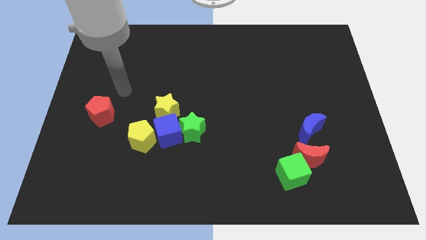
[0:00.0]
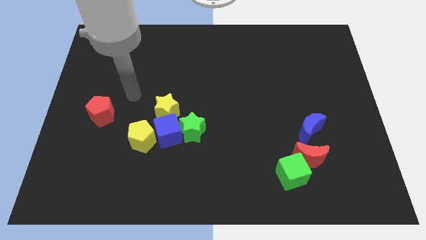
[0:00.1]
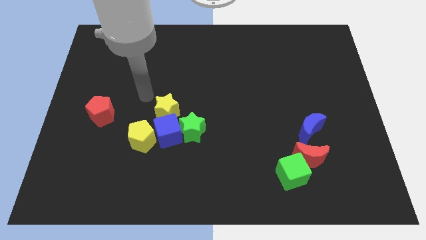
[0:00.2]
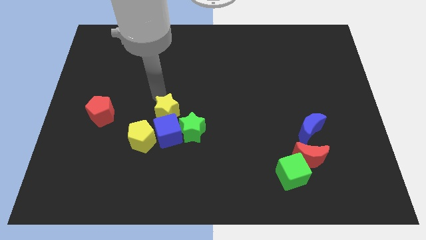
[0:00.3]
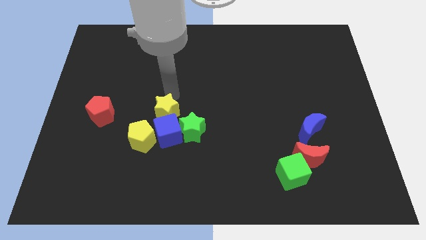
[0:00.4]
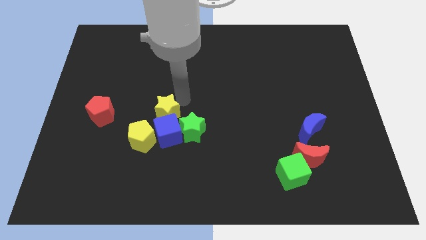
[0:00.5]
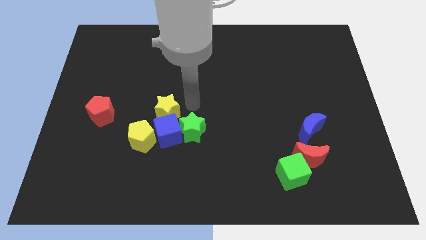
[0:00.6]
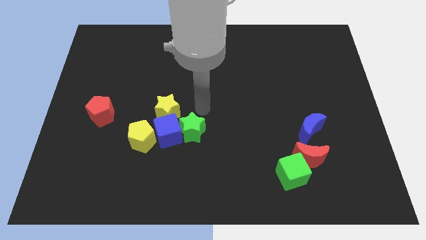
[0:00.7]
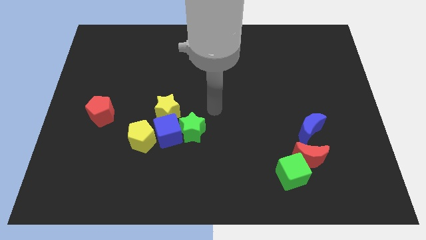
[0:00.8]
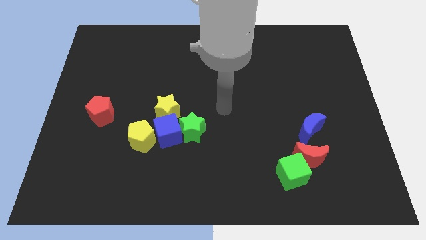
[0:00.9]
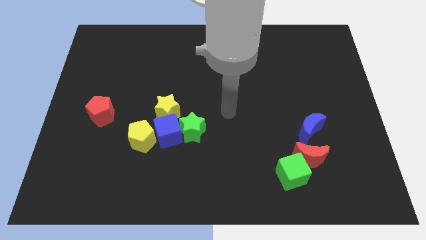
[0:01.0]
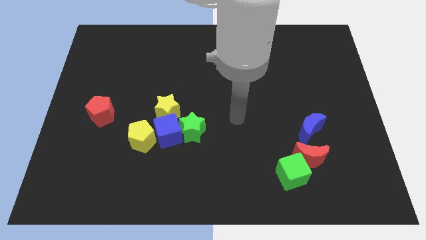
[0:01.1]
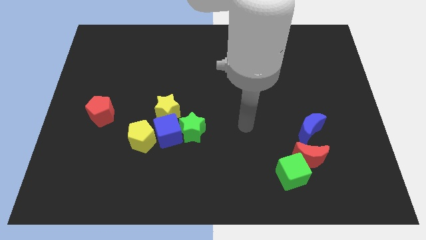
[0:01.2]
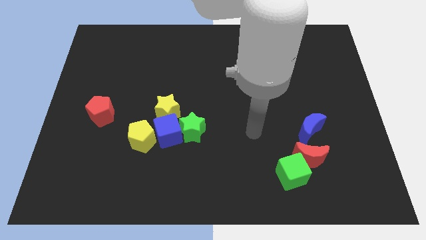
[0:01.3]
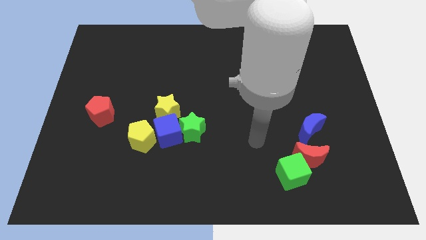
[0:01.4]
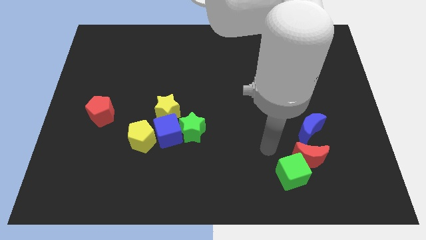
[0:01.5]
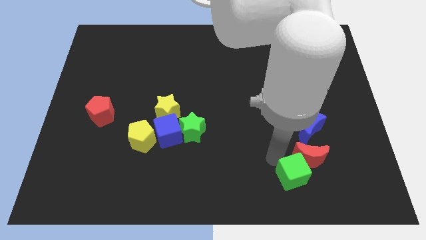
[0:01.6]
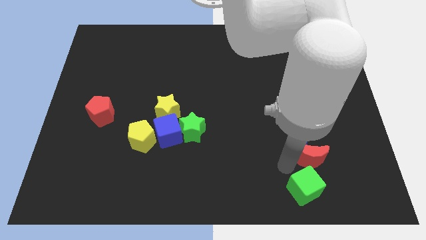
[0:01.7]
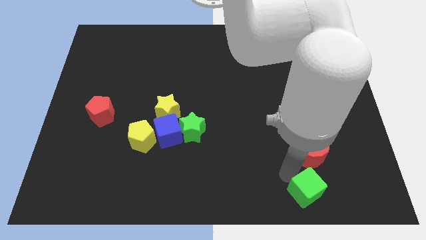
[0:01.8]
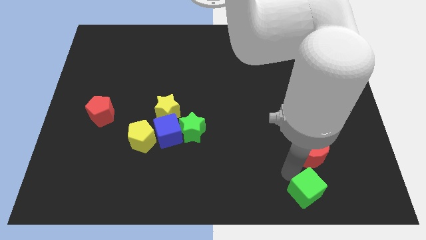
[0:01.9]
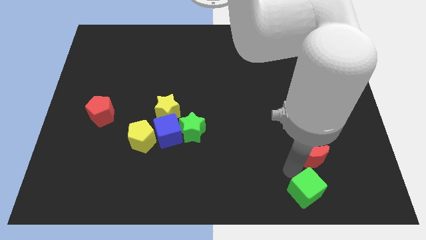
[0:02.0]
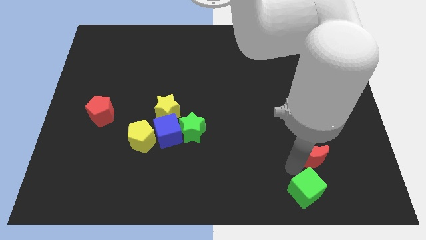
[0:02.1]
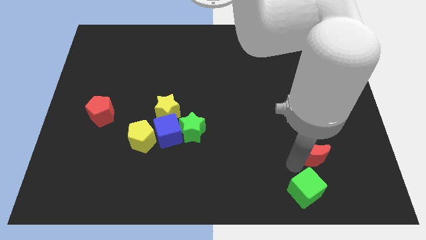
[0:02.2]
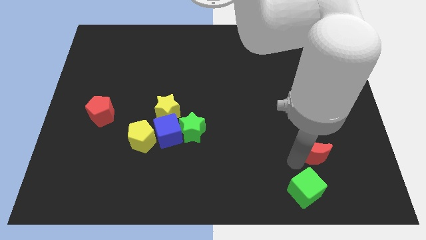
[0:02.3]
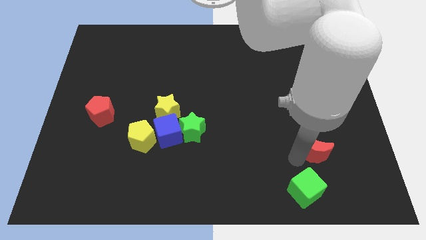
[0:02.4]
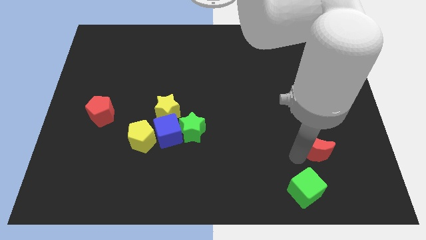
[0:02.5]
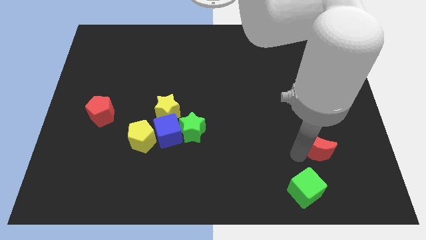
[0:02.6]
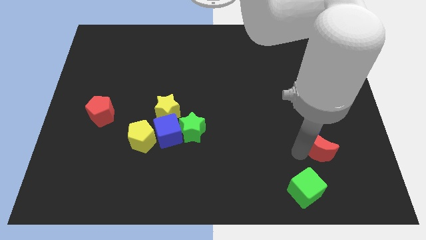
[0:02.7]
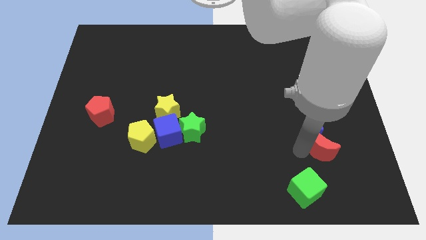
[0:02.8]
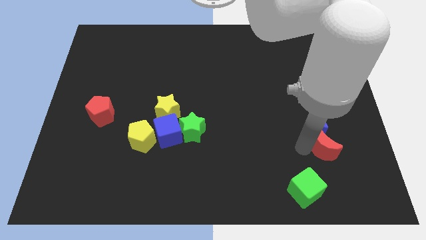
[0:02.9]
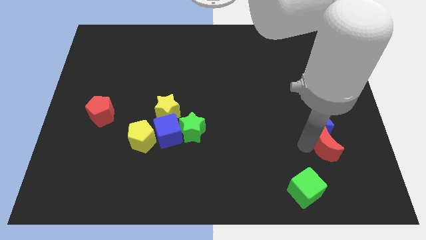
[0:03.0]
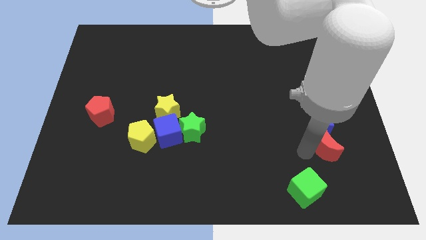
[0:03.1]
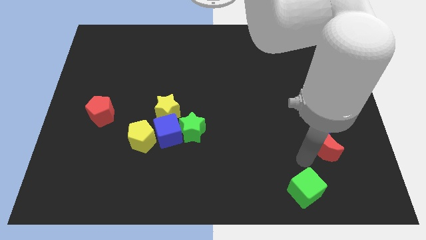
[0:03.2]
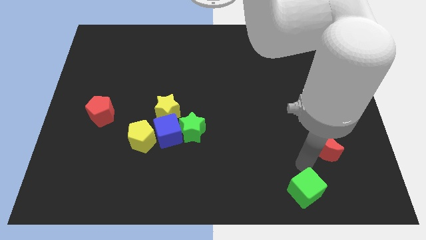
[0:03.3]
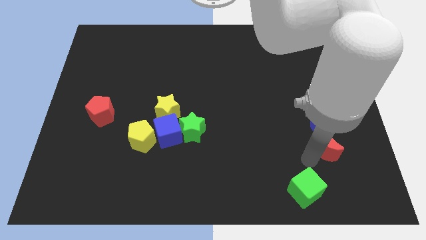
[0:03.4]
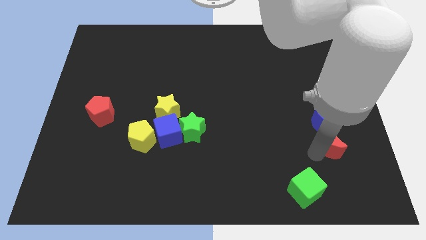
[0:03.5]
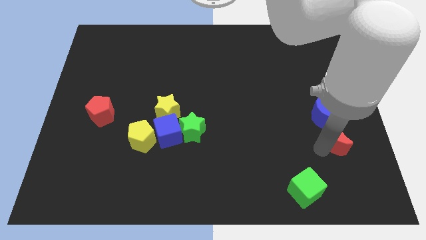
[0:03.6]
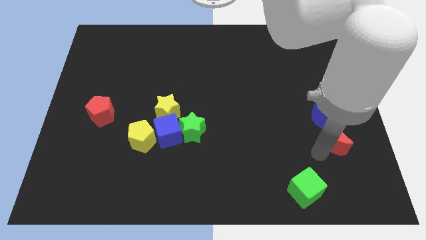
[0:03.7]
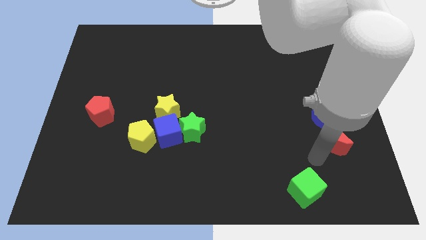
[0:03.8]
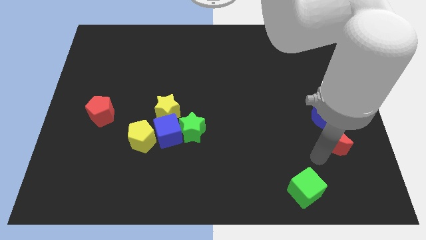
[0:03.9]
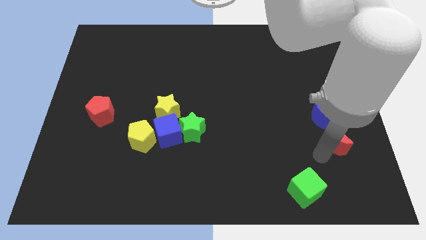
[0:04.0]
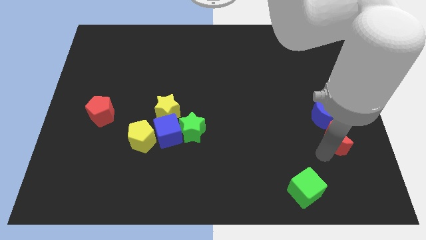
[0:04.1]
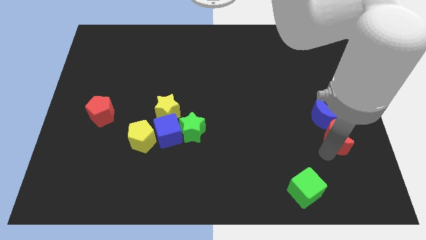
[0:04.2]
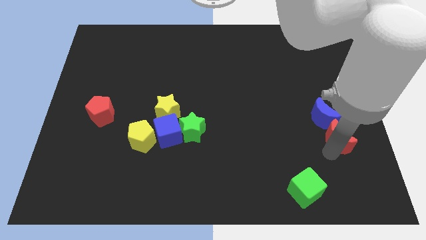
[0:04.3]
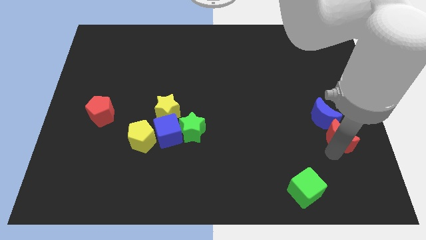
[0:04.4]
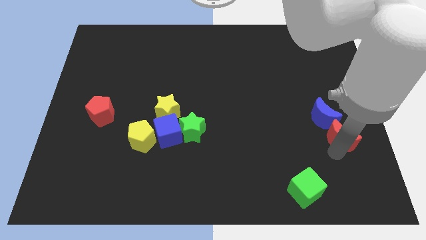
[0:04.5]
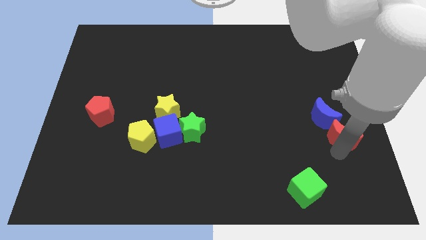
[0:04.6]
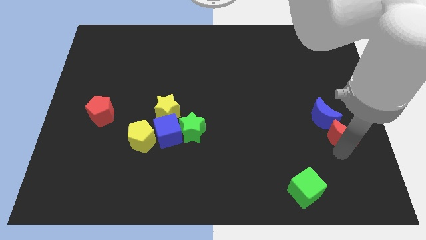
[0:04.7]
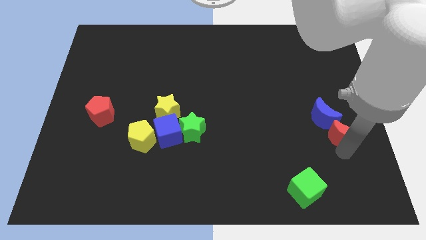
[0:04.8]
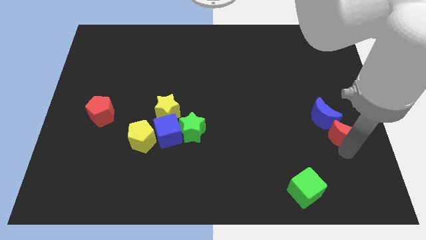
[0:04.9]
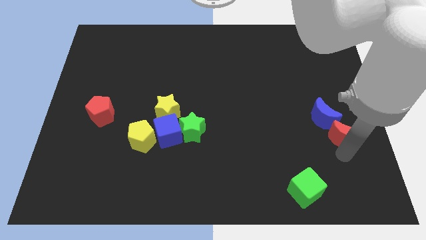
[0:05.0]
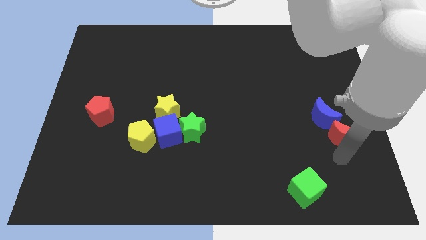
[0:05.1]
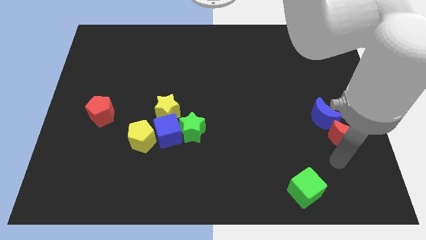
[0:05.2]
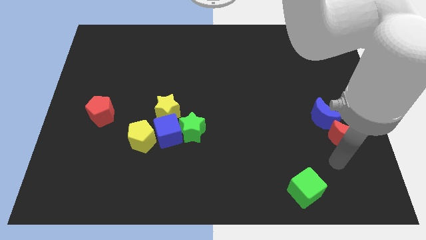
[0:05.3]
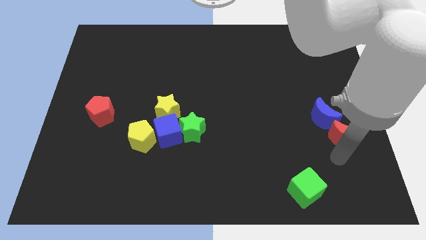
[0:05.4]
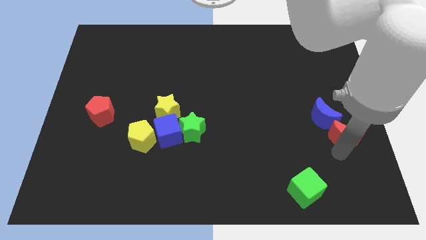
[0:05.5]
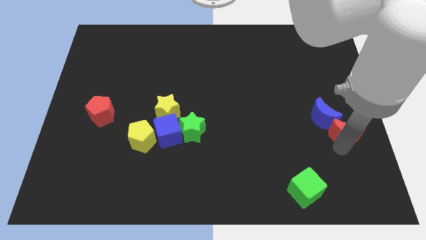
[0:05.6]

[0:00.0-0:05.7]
put the red moon to the right side

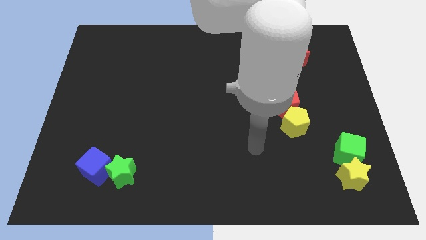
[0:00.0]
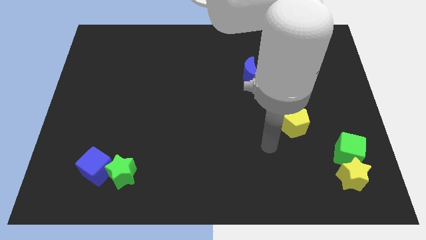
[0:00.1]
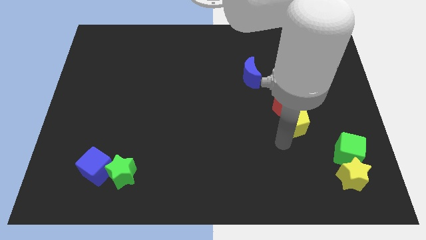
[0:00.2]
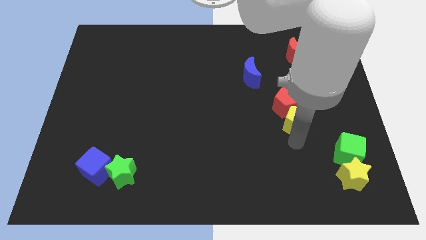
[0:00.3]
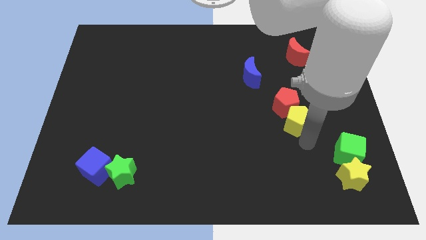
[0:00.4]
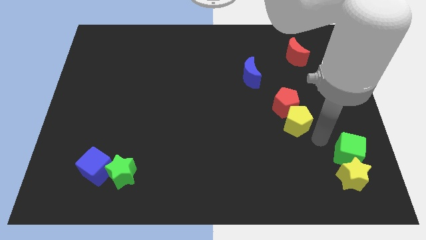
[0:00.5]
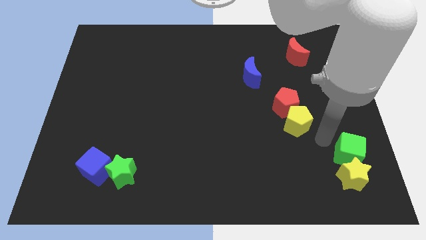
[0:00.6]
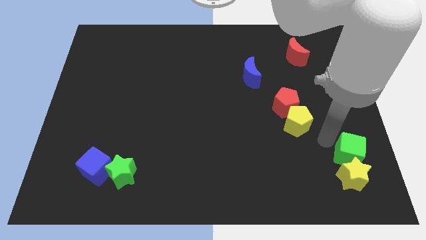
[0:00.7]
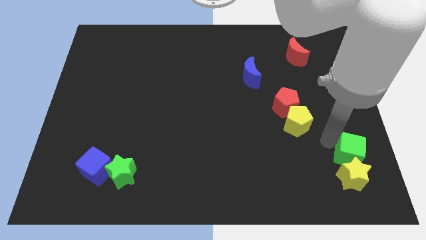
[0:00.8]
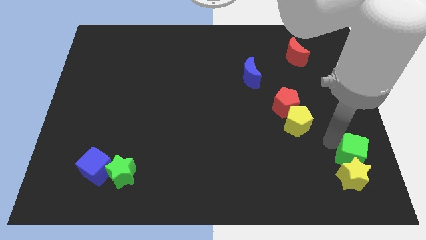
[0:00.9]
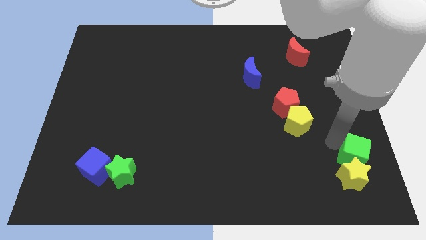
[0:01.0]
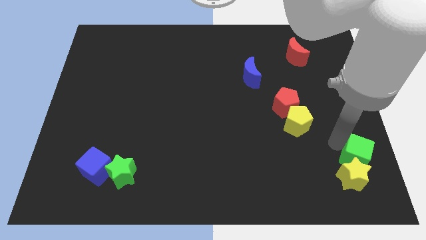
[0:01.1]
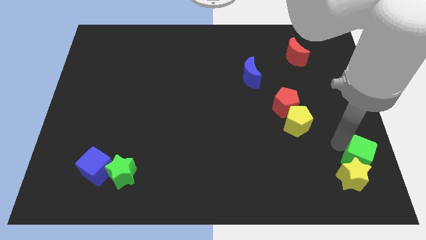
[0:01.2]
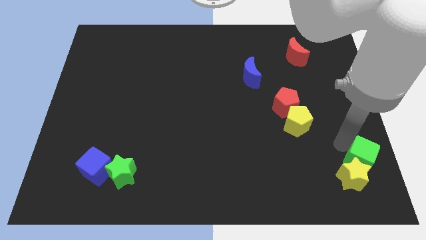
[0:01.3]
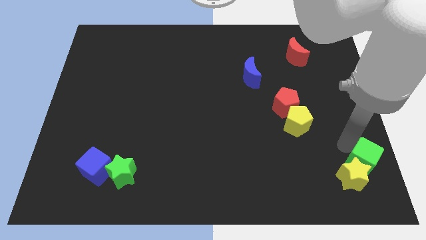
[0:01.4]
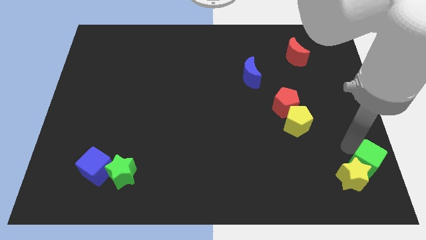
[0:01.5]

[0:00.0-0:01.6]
put the green cube to the lower right corner

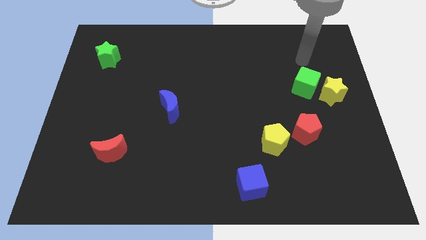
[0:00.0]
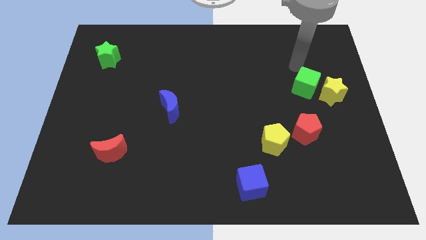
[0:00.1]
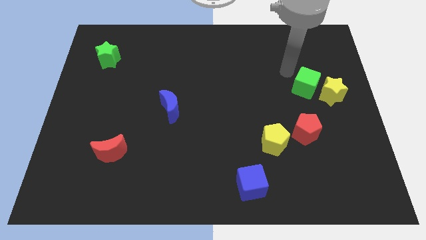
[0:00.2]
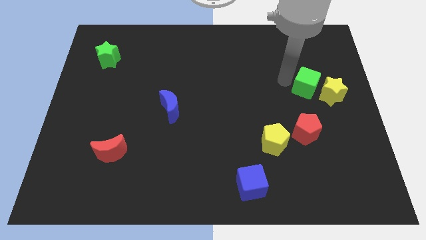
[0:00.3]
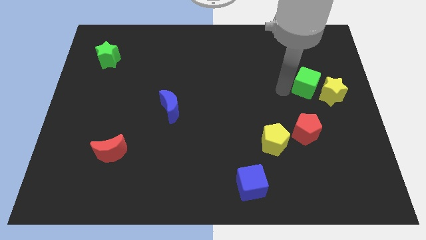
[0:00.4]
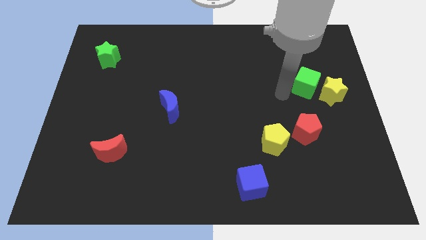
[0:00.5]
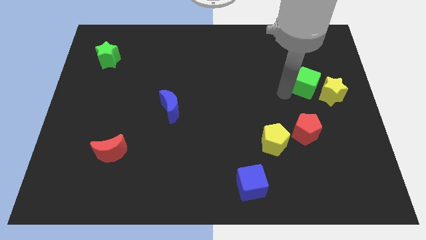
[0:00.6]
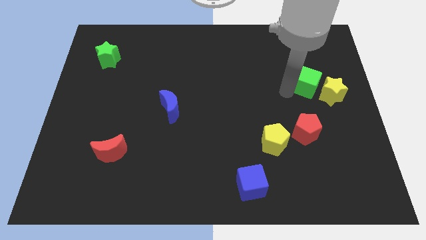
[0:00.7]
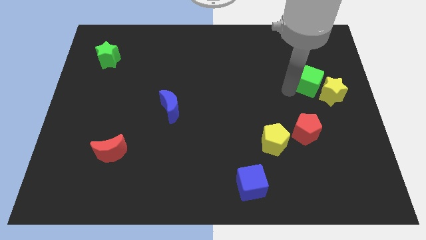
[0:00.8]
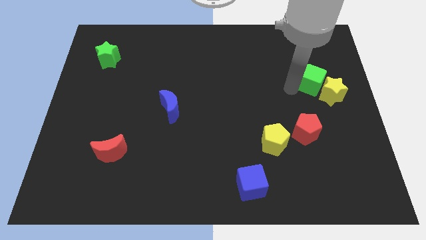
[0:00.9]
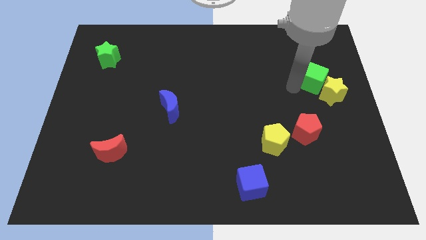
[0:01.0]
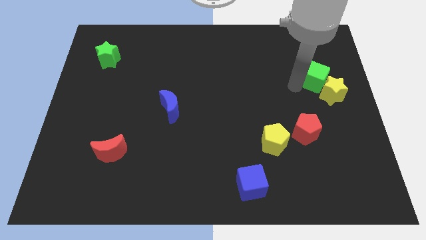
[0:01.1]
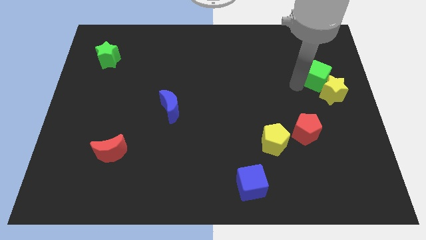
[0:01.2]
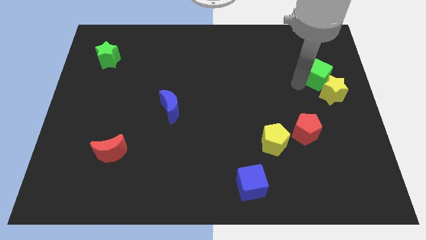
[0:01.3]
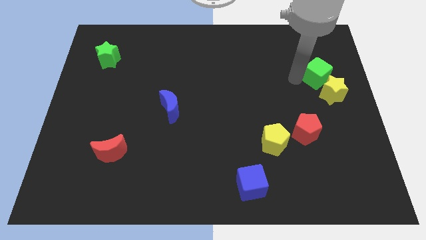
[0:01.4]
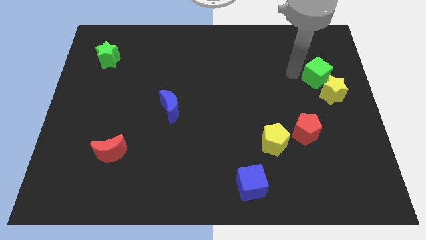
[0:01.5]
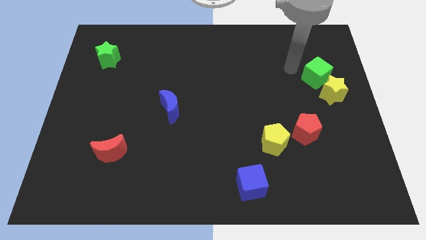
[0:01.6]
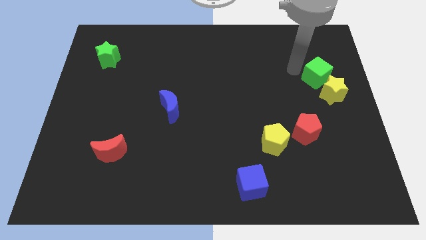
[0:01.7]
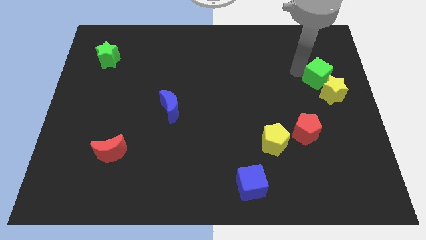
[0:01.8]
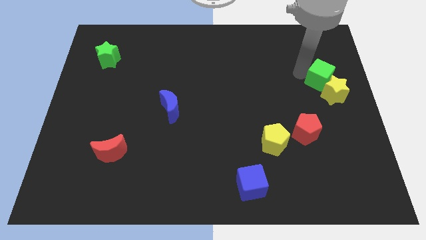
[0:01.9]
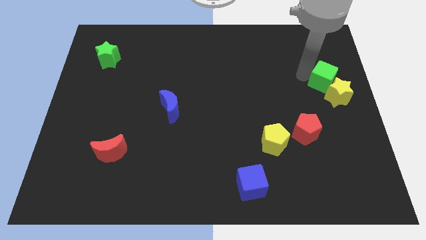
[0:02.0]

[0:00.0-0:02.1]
move the green cube to the right side
